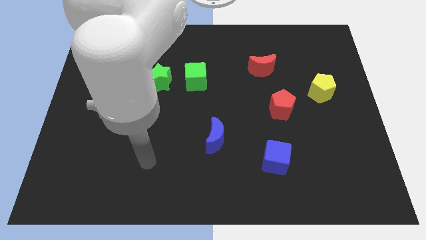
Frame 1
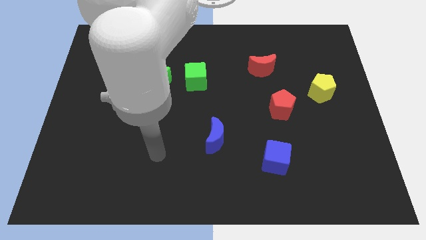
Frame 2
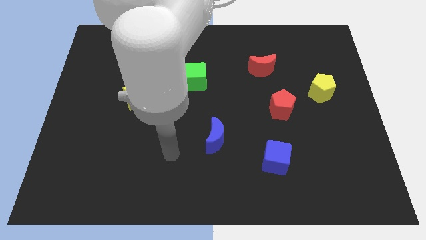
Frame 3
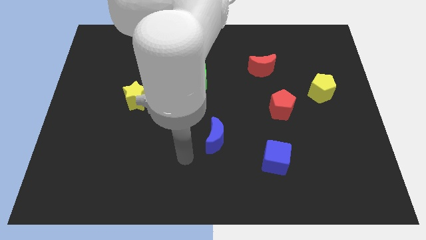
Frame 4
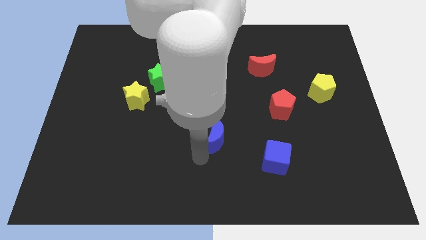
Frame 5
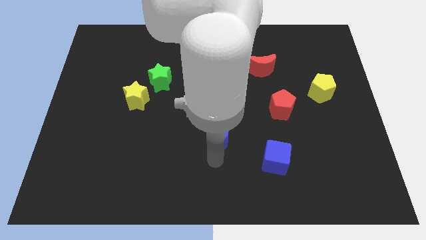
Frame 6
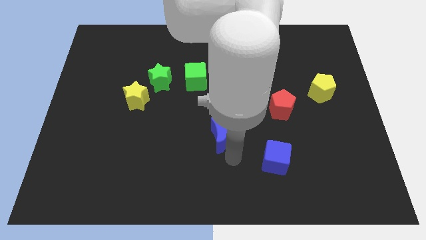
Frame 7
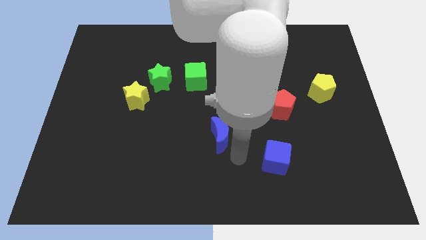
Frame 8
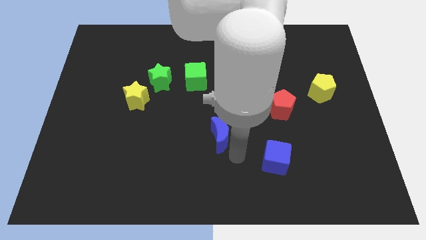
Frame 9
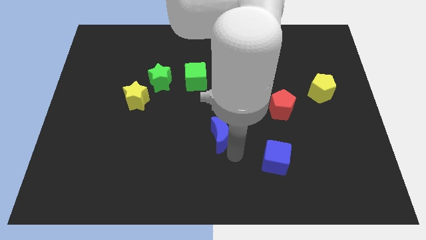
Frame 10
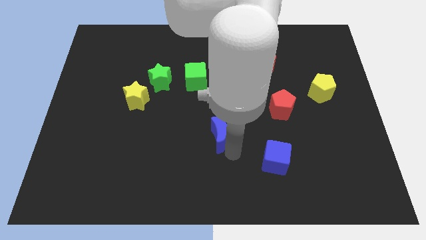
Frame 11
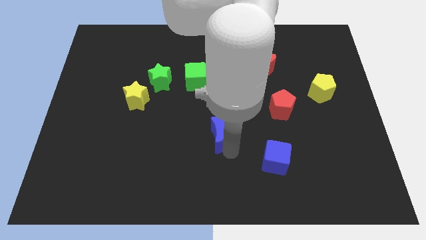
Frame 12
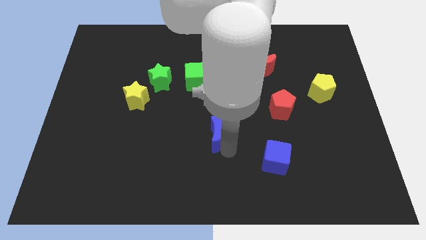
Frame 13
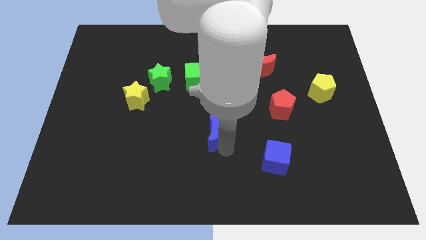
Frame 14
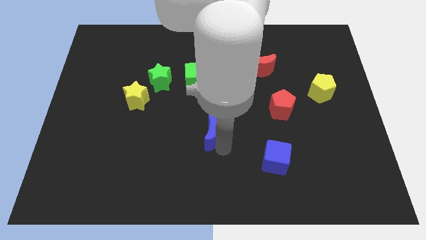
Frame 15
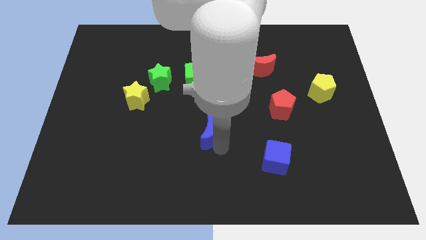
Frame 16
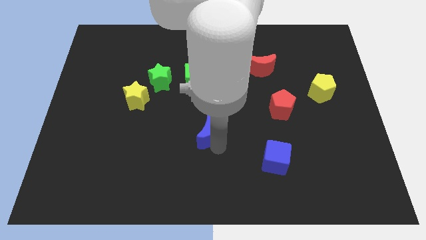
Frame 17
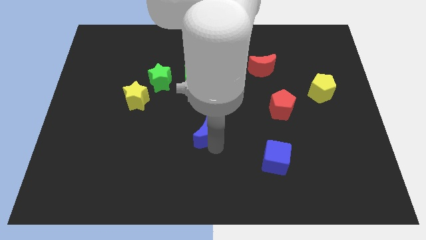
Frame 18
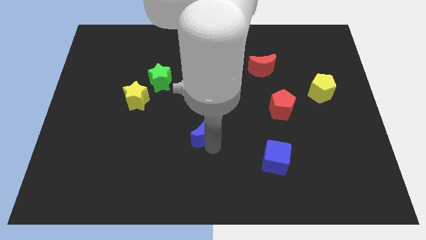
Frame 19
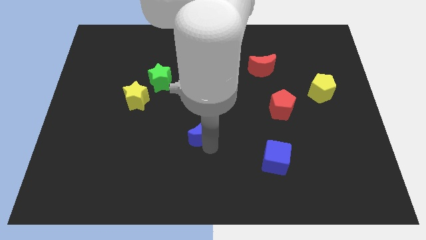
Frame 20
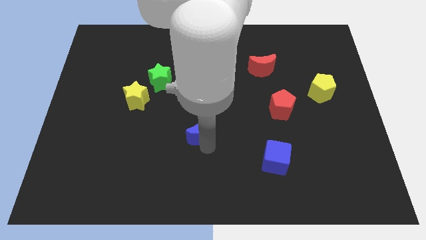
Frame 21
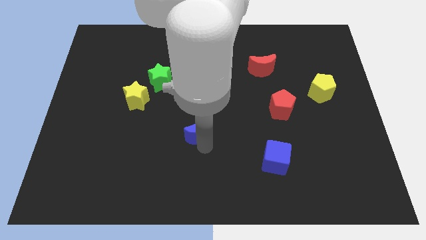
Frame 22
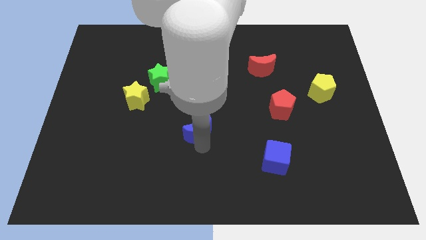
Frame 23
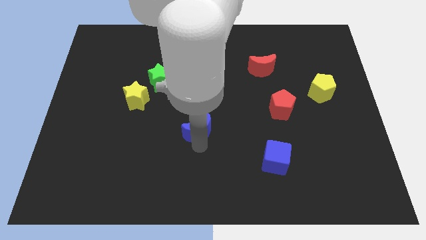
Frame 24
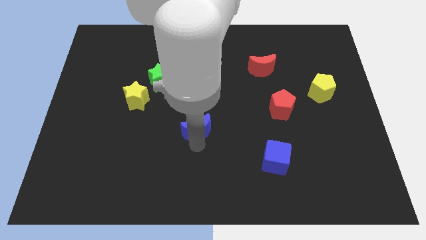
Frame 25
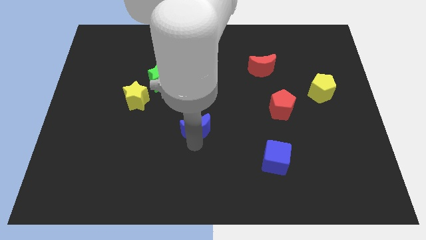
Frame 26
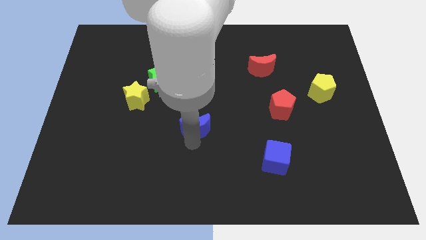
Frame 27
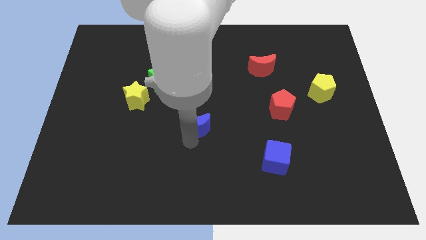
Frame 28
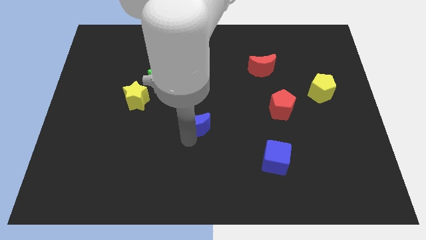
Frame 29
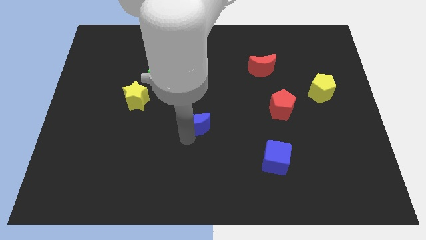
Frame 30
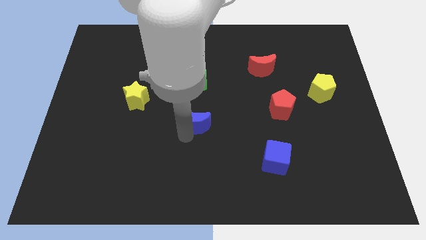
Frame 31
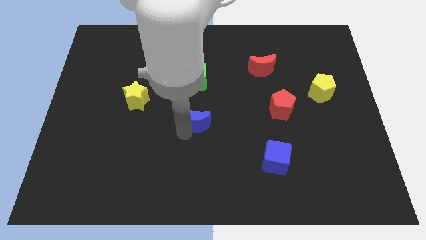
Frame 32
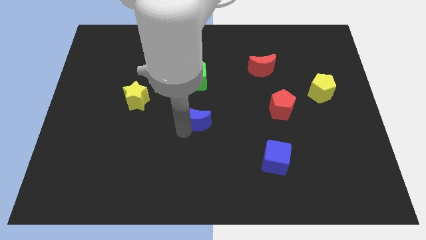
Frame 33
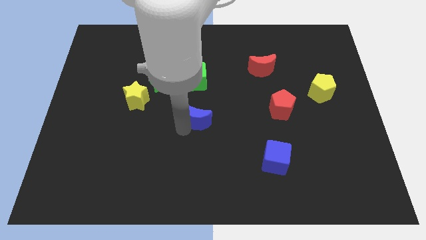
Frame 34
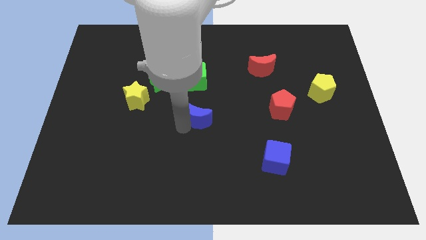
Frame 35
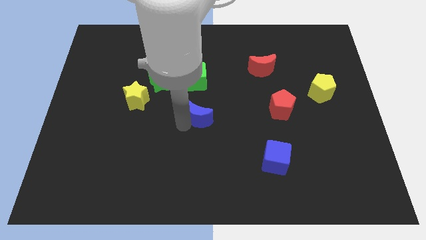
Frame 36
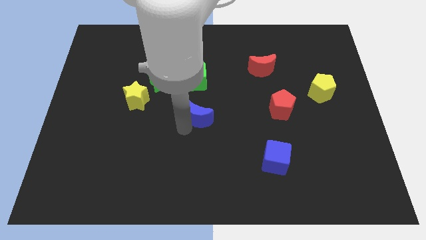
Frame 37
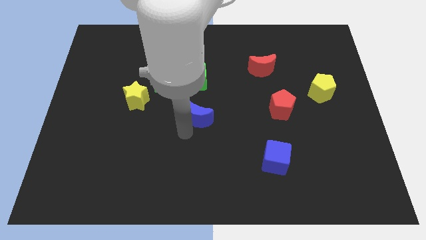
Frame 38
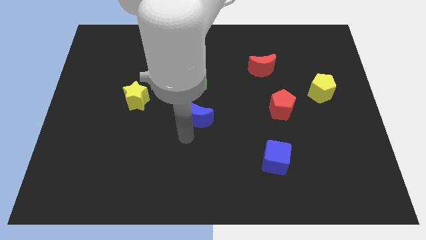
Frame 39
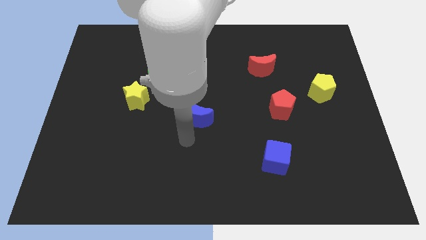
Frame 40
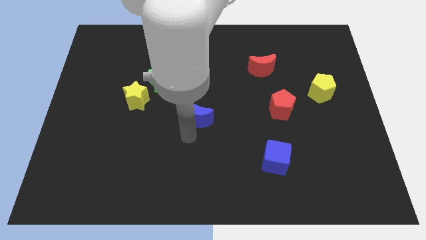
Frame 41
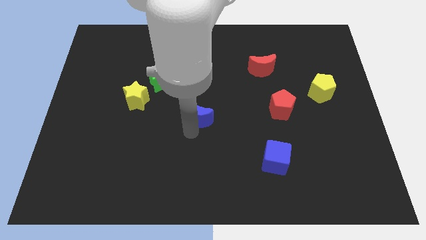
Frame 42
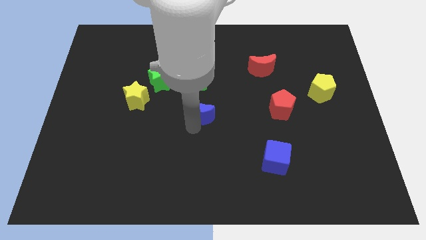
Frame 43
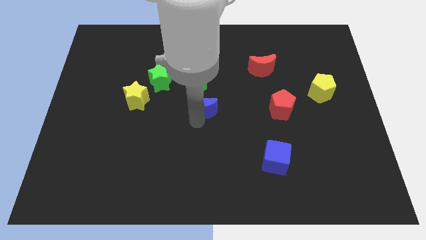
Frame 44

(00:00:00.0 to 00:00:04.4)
move the blue moon upwards a little

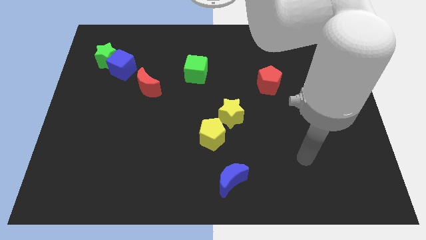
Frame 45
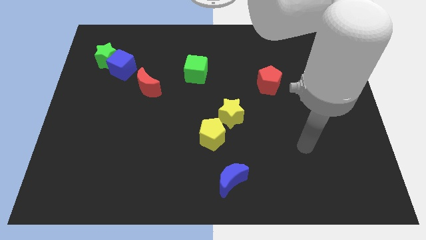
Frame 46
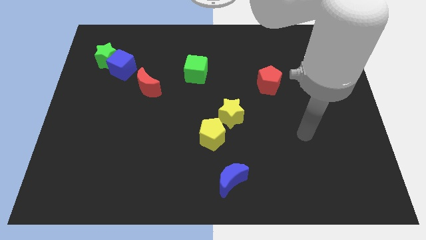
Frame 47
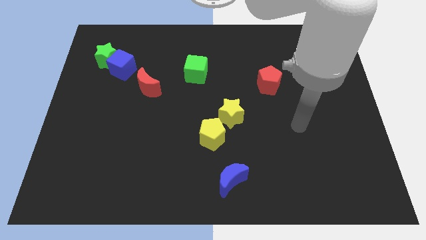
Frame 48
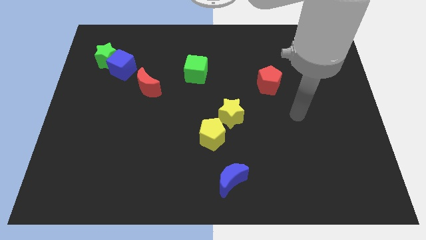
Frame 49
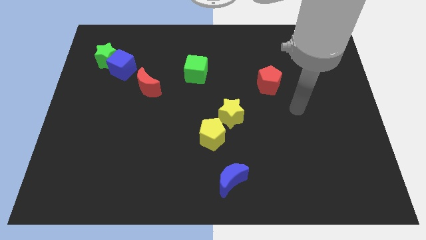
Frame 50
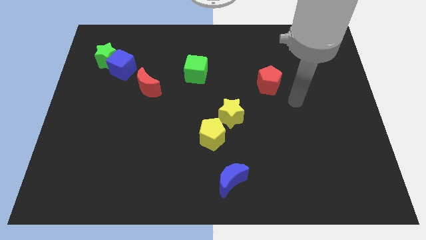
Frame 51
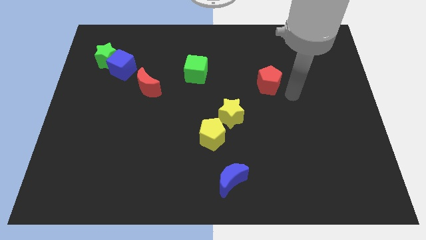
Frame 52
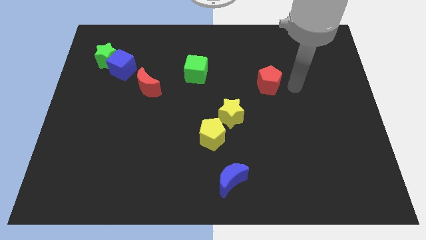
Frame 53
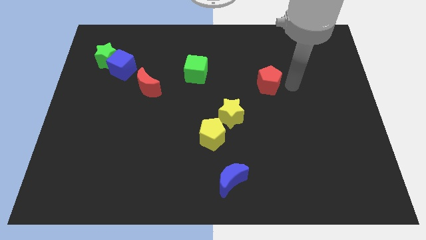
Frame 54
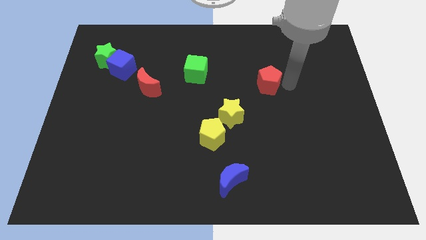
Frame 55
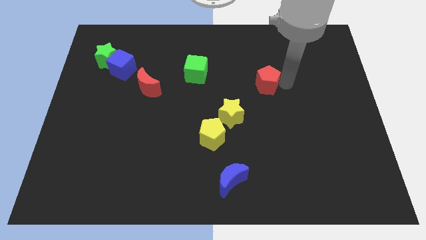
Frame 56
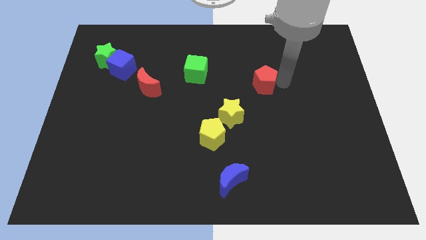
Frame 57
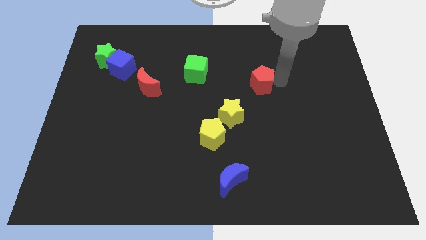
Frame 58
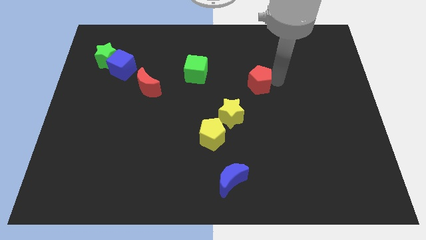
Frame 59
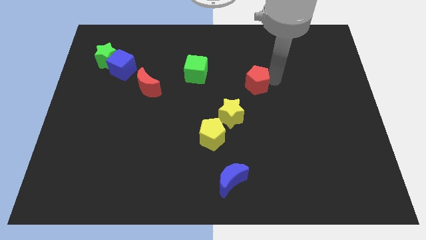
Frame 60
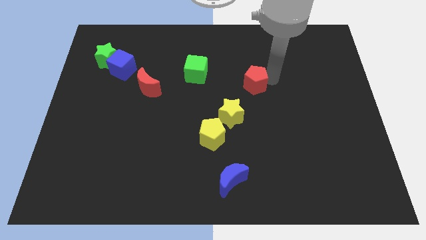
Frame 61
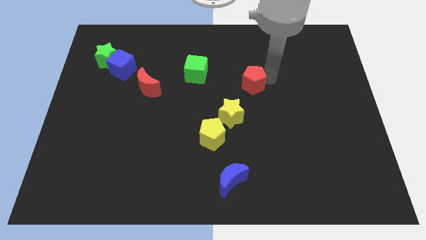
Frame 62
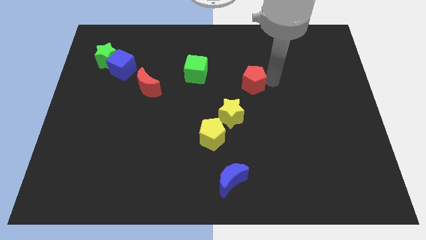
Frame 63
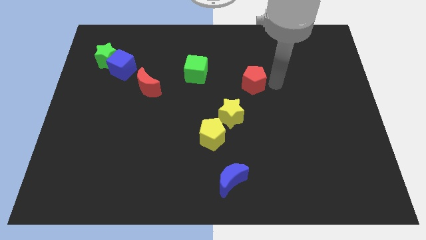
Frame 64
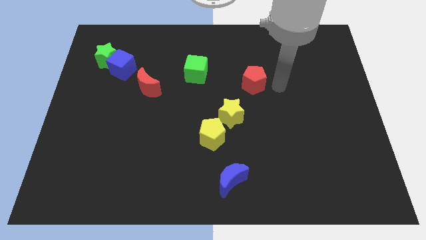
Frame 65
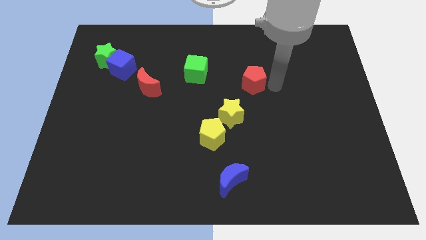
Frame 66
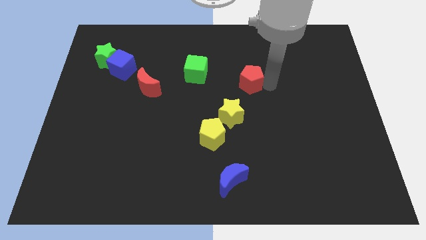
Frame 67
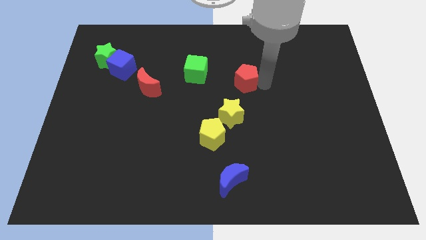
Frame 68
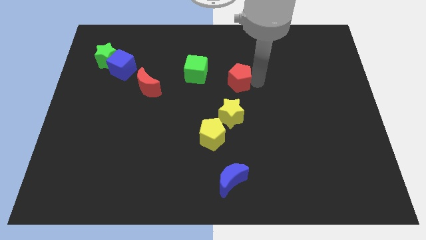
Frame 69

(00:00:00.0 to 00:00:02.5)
push the red pentagon to the left a bit

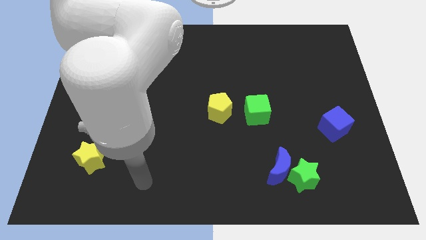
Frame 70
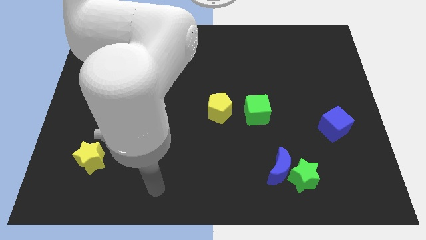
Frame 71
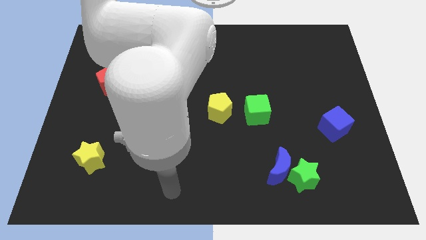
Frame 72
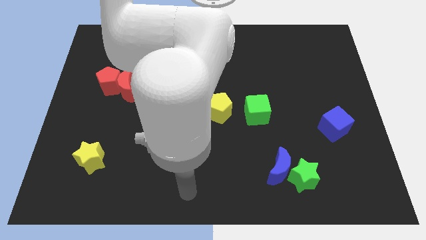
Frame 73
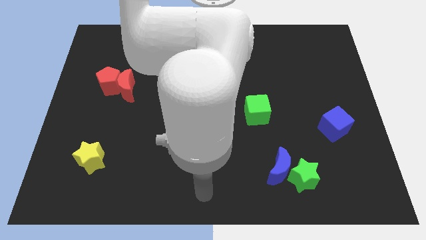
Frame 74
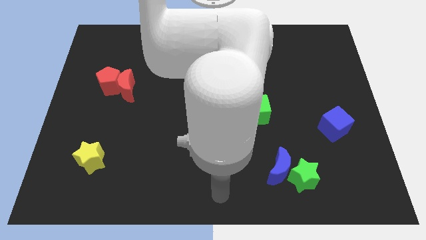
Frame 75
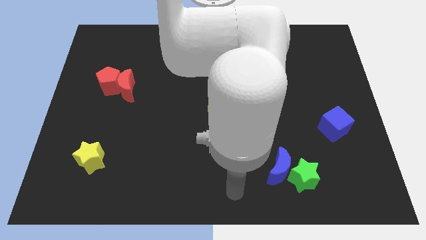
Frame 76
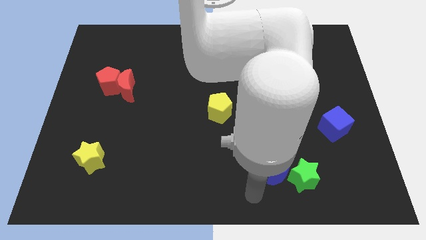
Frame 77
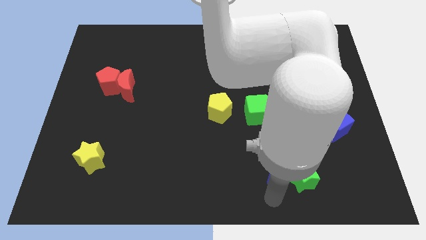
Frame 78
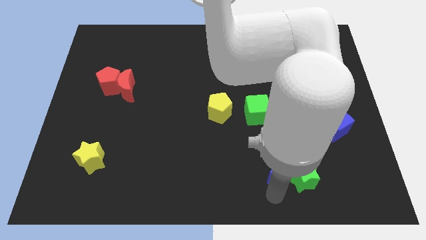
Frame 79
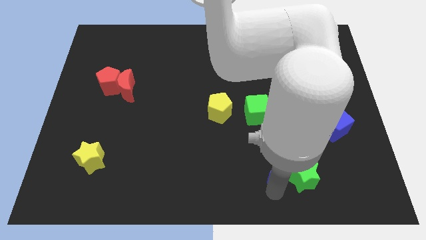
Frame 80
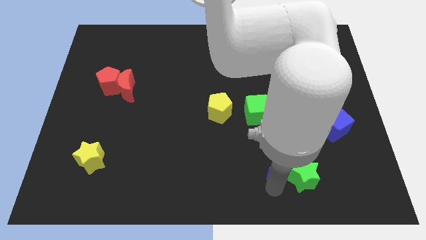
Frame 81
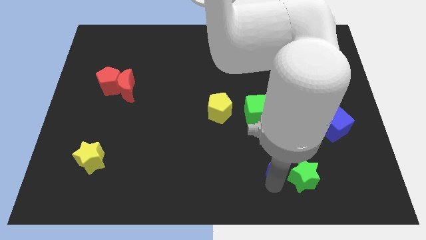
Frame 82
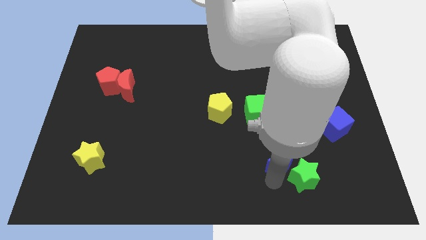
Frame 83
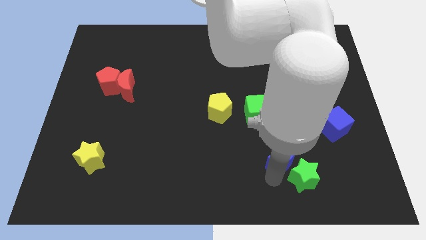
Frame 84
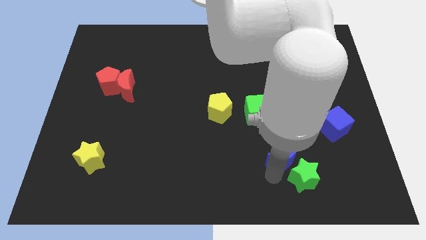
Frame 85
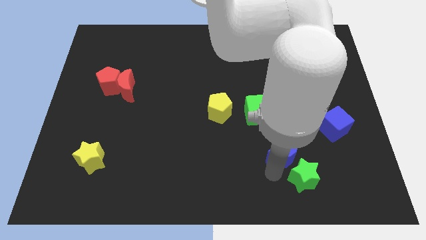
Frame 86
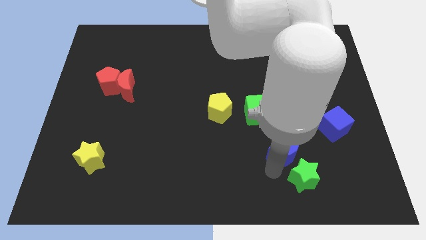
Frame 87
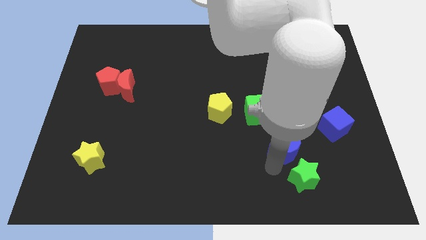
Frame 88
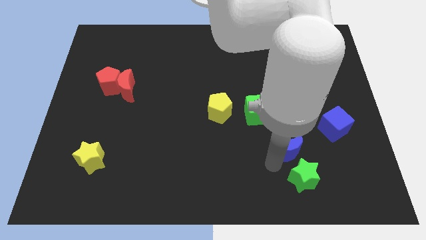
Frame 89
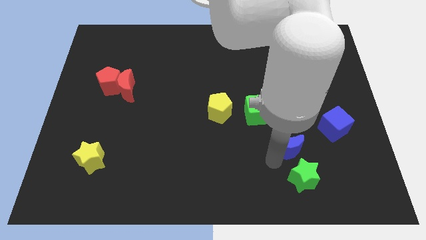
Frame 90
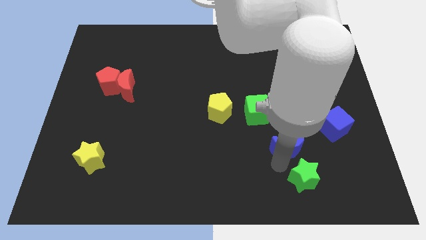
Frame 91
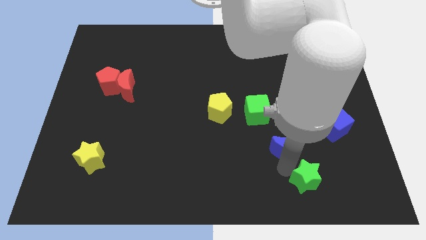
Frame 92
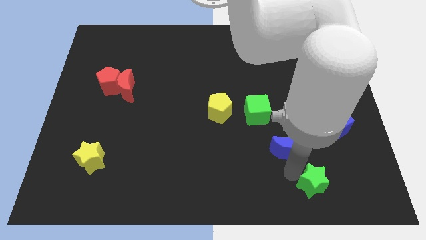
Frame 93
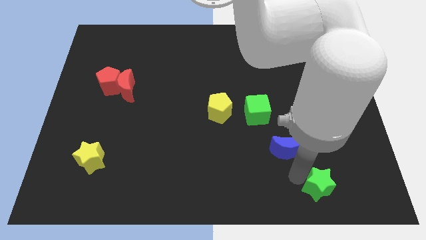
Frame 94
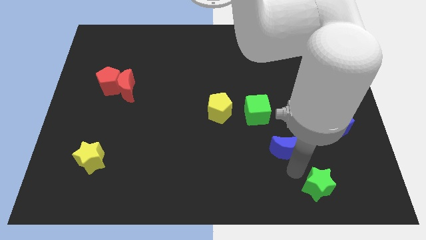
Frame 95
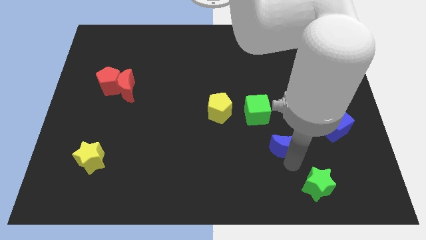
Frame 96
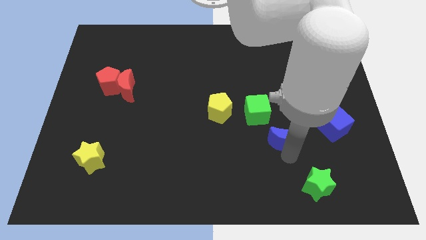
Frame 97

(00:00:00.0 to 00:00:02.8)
slide the blue moon a little bit up
